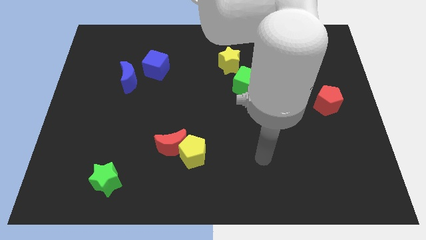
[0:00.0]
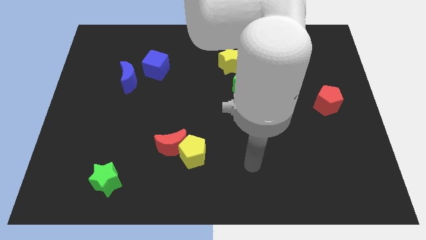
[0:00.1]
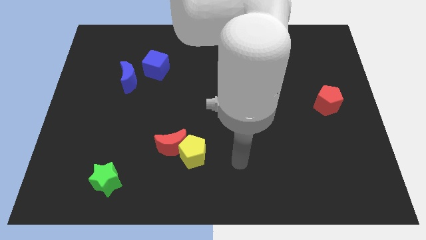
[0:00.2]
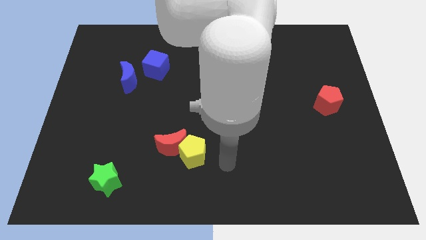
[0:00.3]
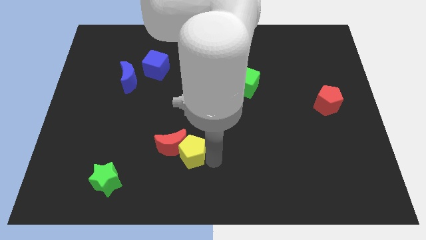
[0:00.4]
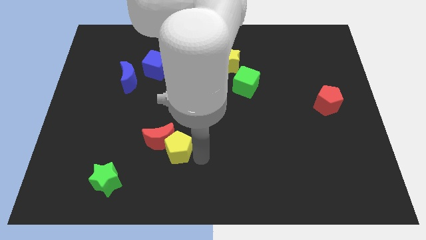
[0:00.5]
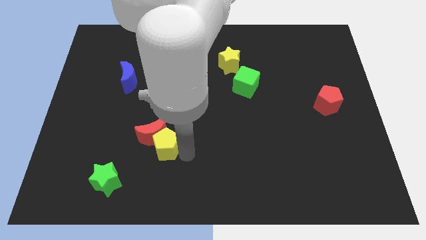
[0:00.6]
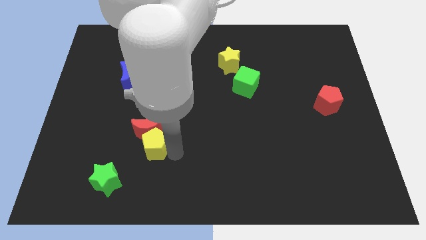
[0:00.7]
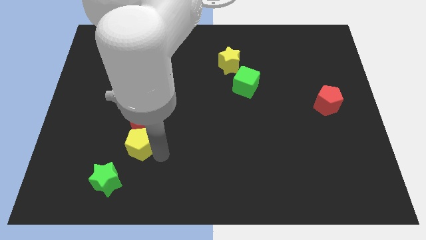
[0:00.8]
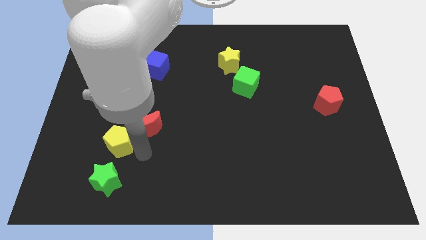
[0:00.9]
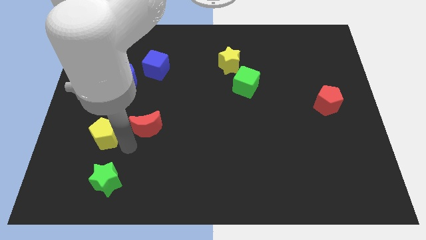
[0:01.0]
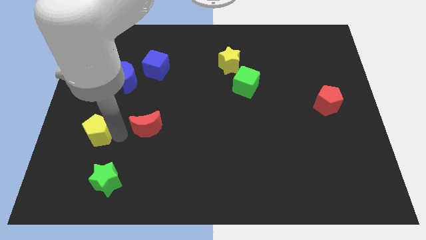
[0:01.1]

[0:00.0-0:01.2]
separate the red moon from the yellow pentagon

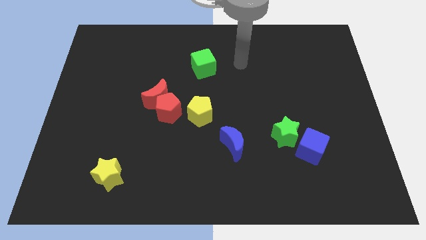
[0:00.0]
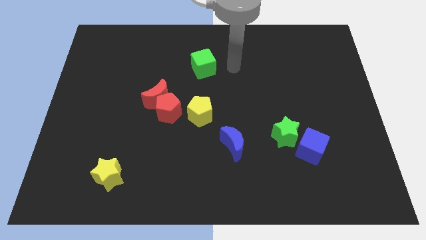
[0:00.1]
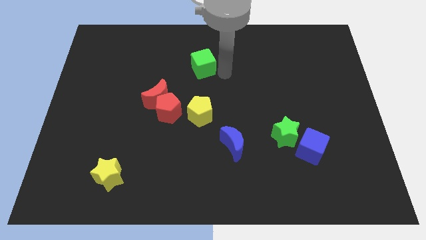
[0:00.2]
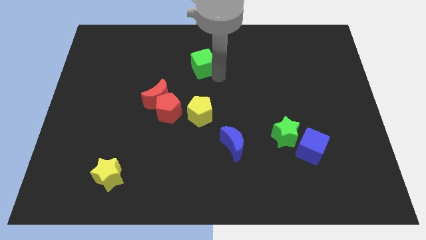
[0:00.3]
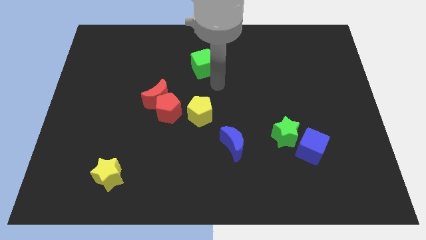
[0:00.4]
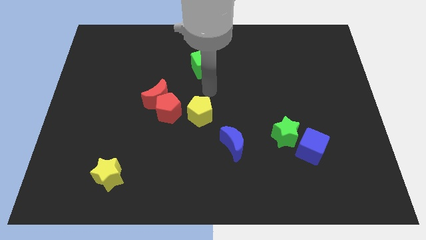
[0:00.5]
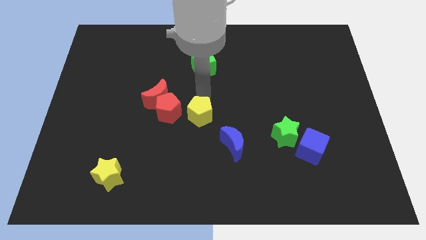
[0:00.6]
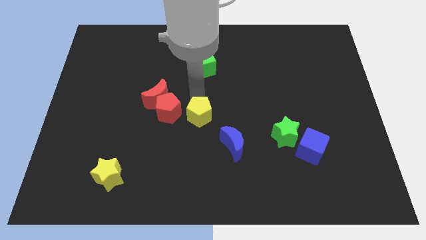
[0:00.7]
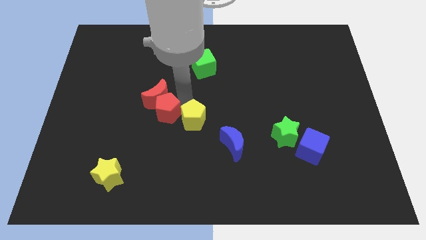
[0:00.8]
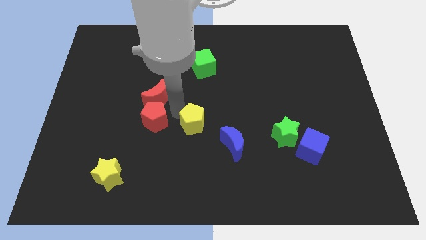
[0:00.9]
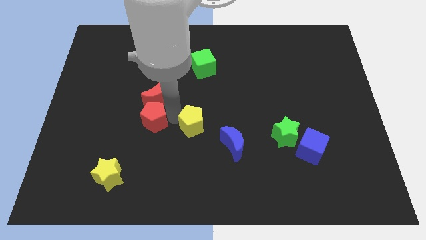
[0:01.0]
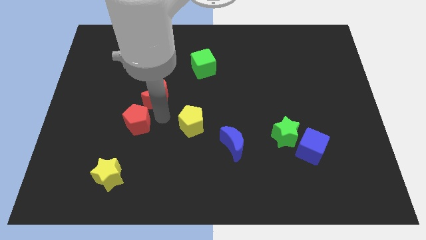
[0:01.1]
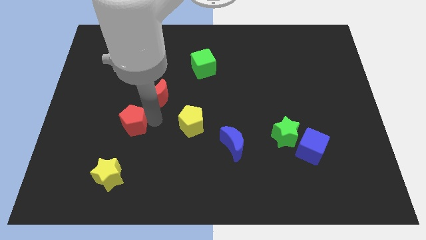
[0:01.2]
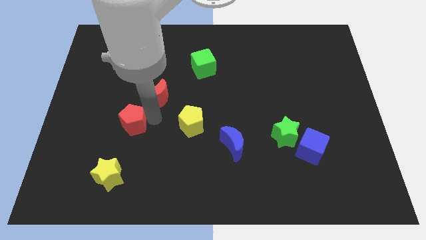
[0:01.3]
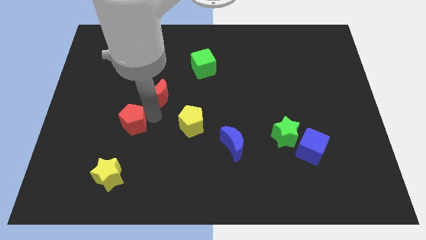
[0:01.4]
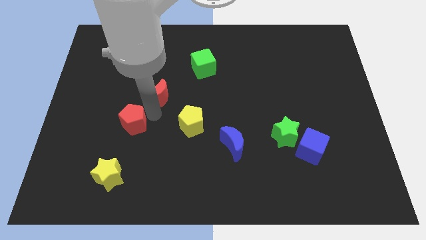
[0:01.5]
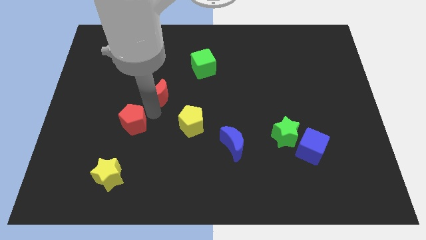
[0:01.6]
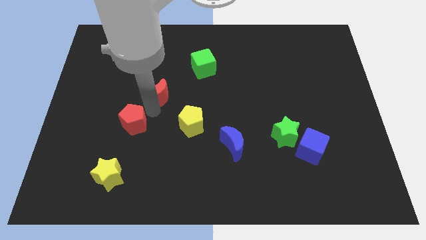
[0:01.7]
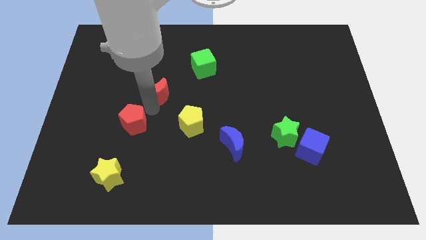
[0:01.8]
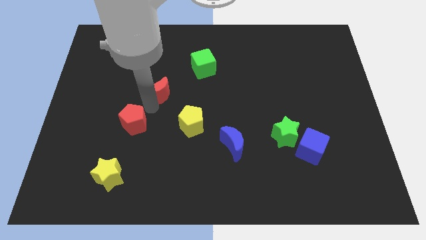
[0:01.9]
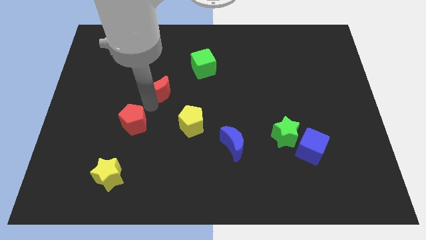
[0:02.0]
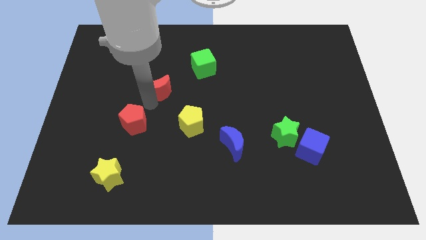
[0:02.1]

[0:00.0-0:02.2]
move the red moon away from the red pentagon

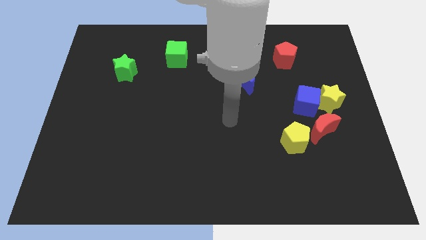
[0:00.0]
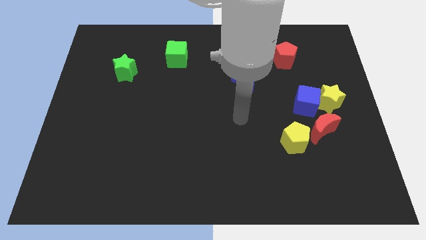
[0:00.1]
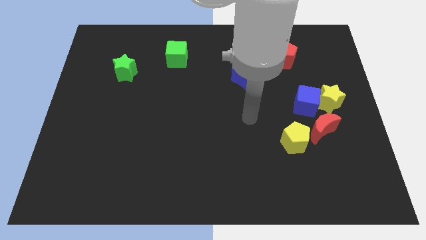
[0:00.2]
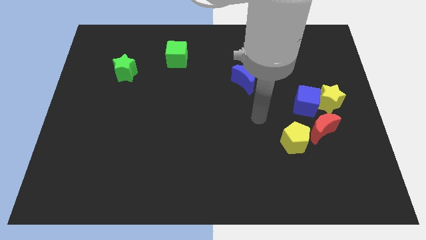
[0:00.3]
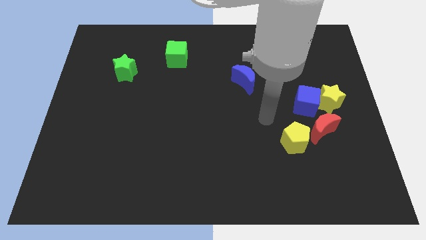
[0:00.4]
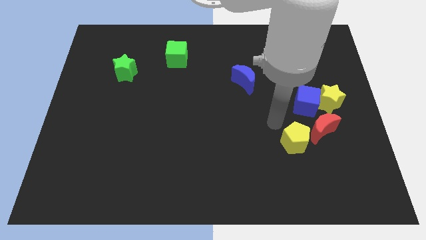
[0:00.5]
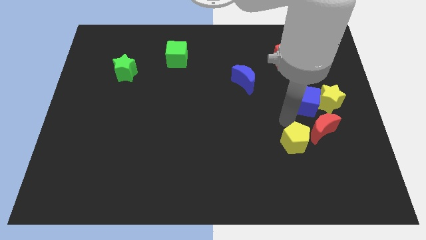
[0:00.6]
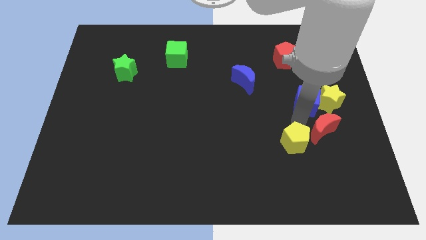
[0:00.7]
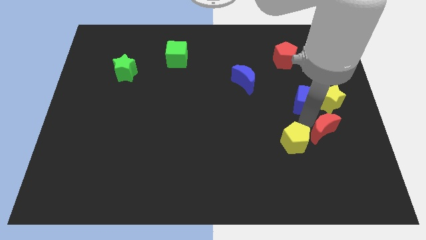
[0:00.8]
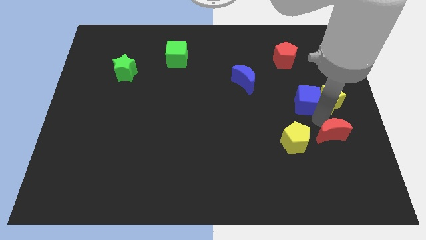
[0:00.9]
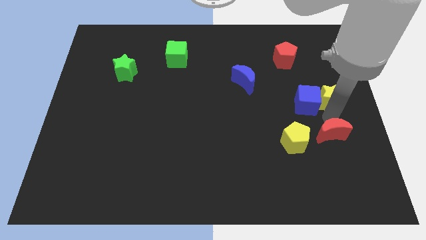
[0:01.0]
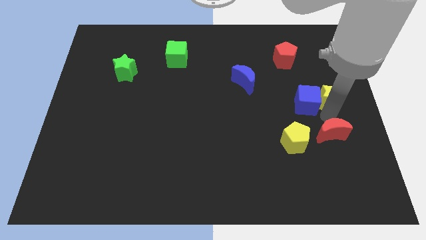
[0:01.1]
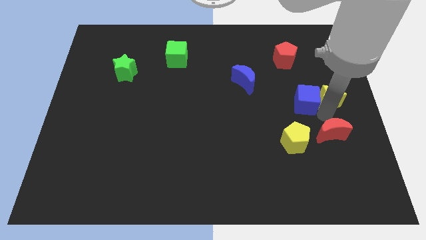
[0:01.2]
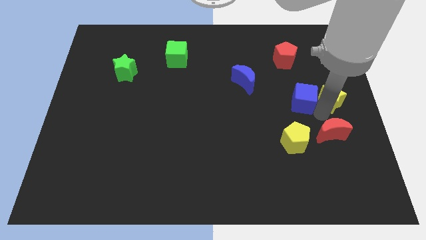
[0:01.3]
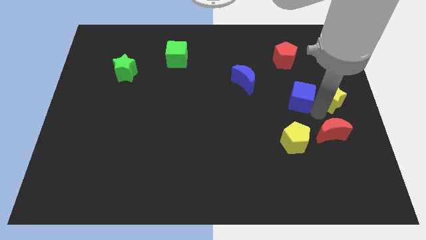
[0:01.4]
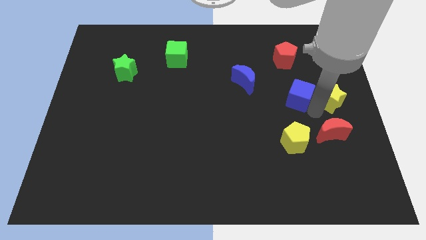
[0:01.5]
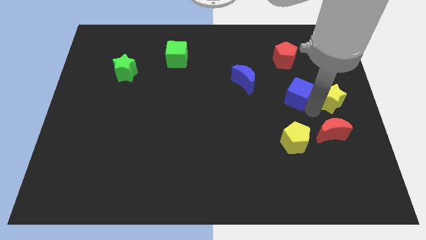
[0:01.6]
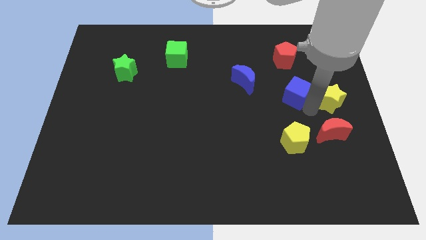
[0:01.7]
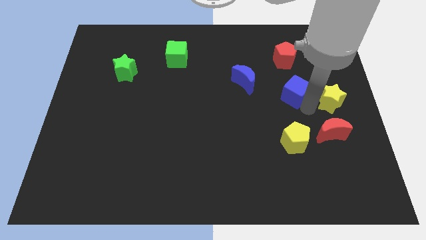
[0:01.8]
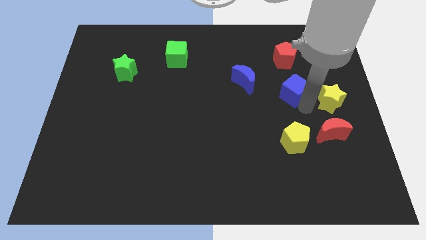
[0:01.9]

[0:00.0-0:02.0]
separate the blue cube from the yellow star and red moon

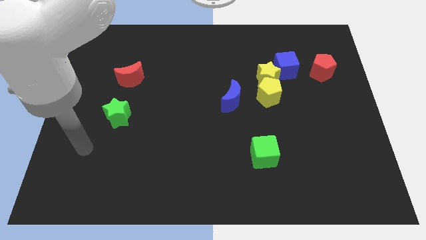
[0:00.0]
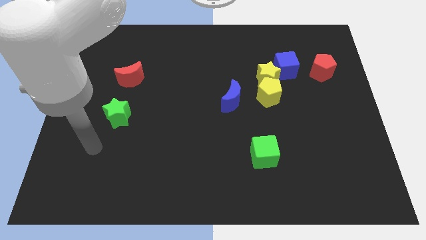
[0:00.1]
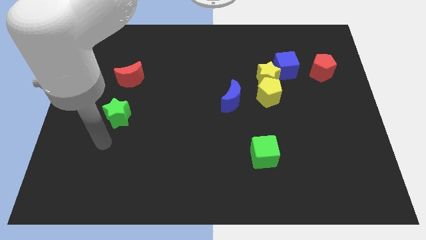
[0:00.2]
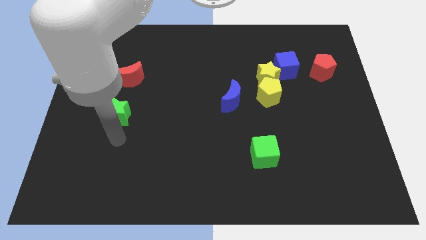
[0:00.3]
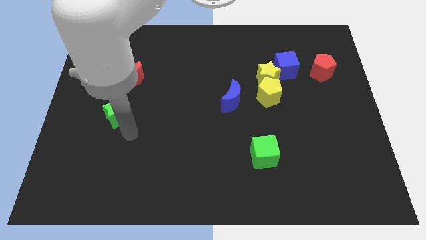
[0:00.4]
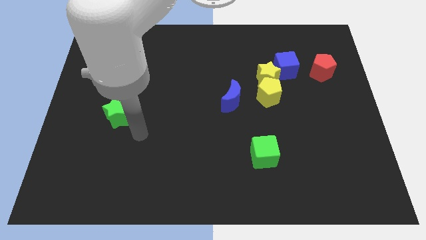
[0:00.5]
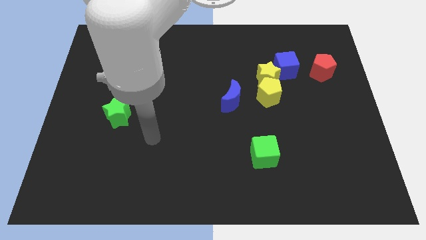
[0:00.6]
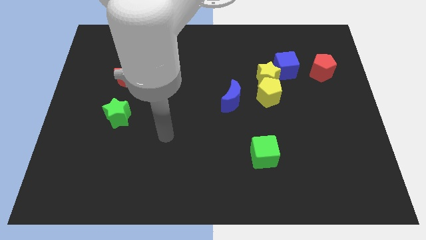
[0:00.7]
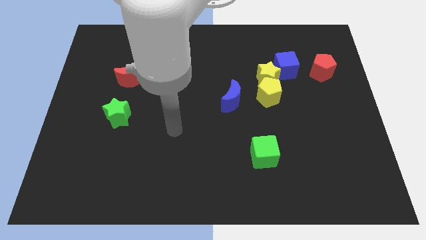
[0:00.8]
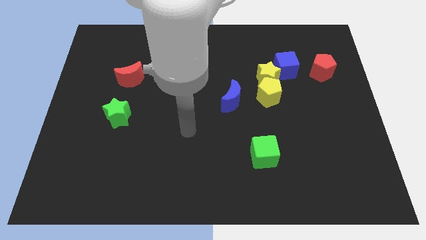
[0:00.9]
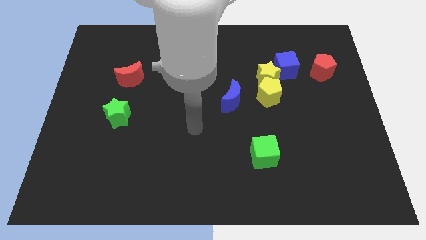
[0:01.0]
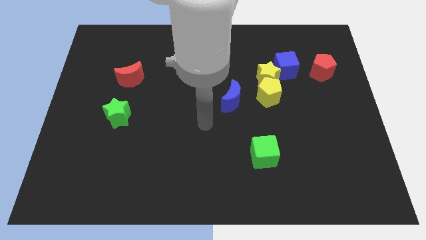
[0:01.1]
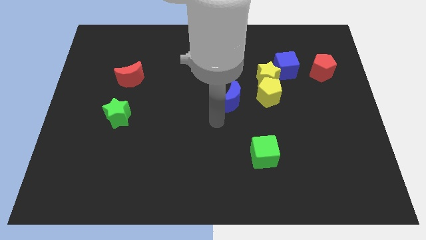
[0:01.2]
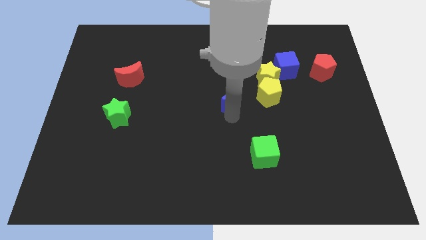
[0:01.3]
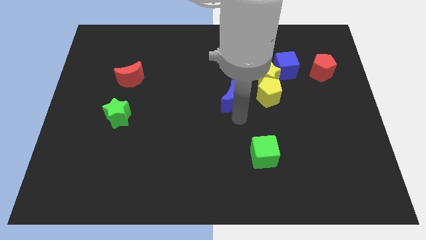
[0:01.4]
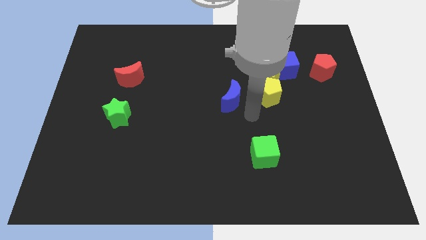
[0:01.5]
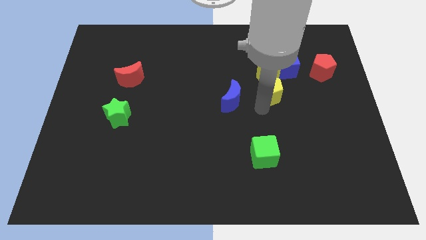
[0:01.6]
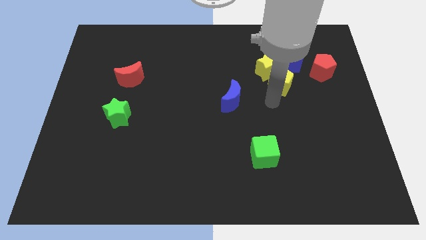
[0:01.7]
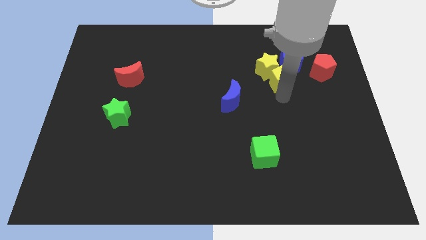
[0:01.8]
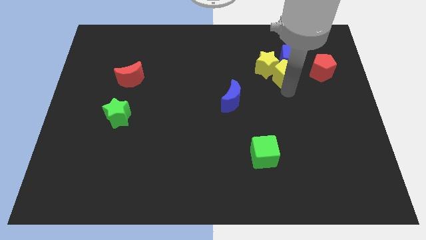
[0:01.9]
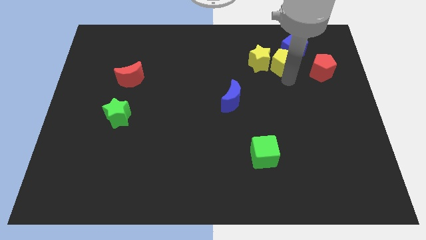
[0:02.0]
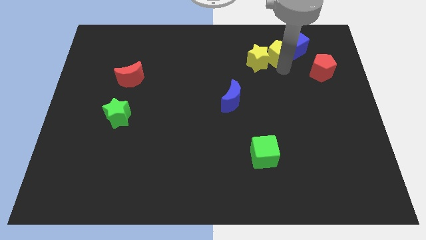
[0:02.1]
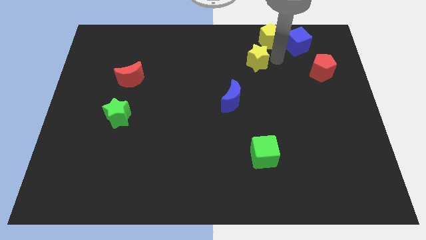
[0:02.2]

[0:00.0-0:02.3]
pull the yellow star apart from the yellow pentagon and blue cube

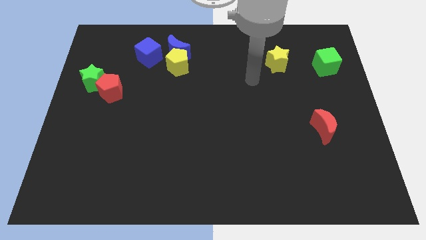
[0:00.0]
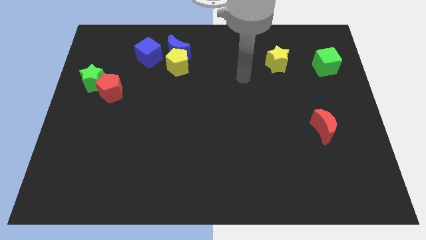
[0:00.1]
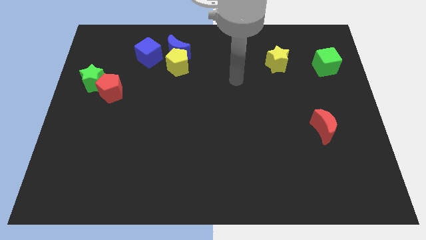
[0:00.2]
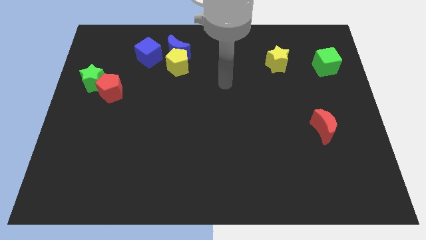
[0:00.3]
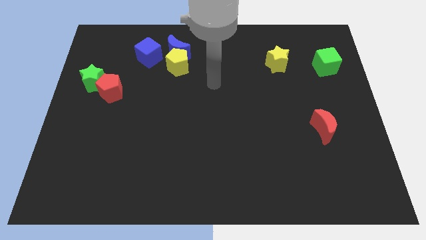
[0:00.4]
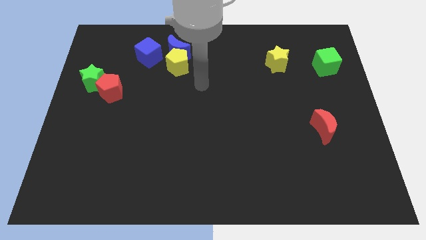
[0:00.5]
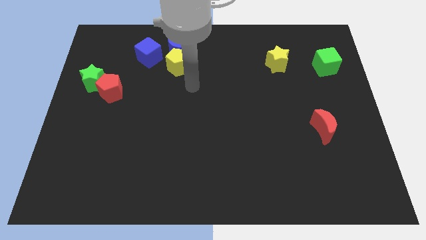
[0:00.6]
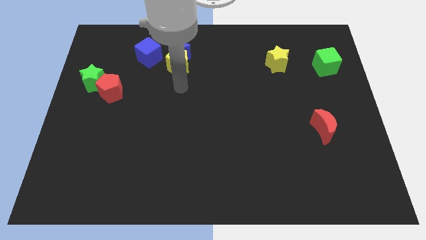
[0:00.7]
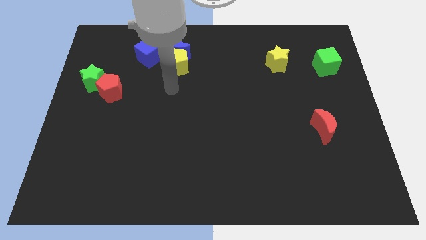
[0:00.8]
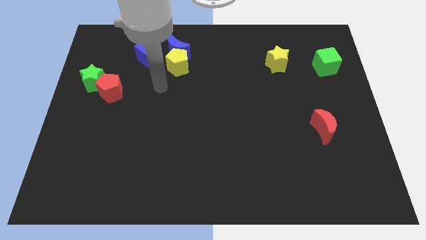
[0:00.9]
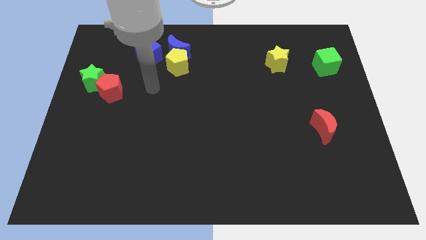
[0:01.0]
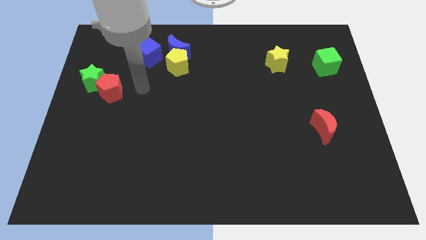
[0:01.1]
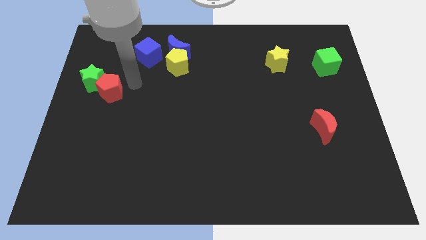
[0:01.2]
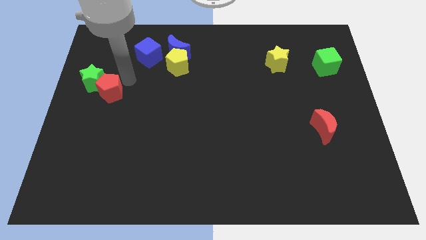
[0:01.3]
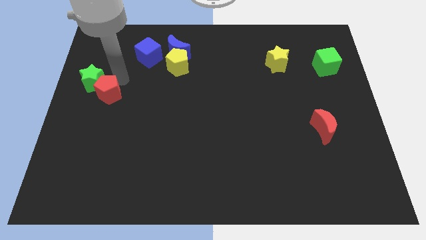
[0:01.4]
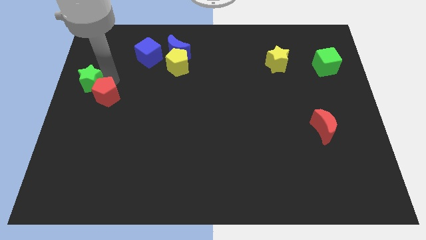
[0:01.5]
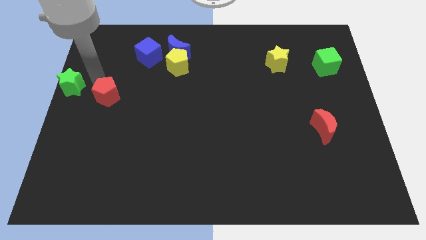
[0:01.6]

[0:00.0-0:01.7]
separate the red pentagon from the green star

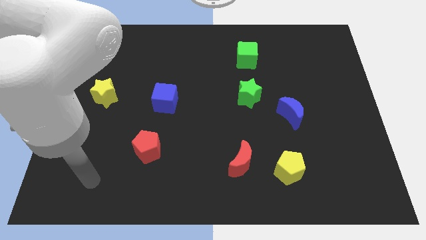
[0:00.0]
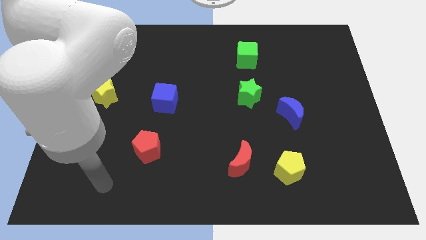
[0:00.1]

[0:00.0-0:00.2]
move the red moon away from the yellow pentagon
